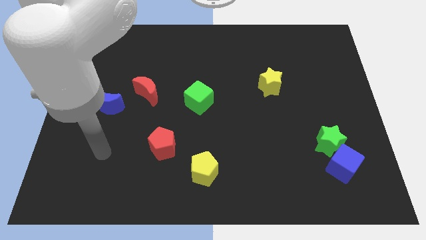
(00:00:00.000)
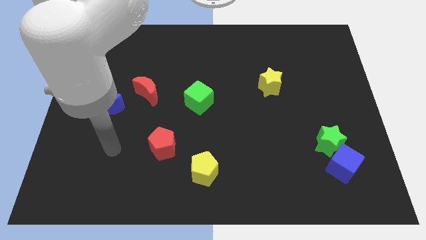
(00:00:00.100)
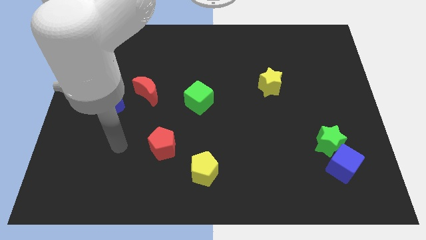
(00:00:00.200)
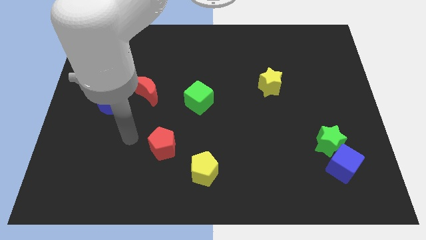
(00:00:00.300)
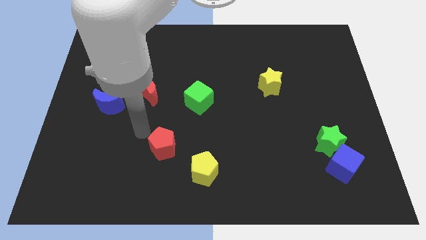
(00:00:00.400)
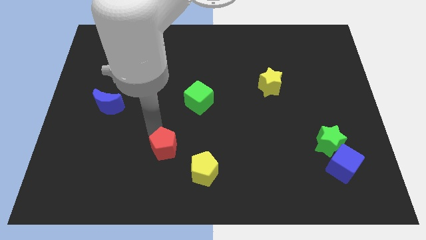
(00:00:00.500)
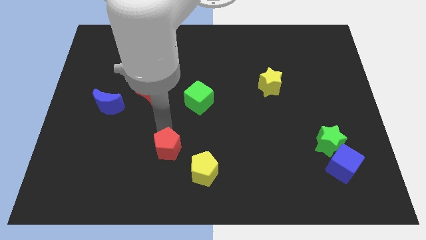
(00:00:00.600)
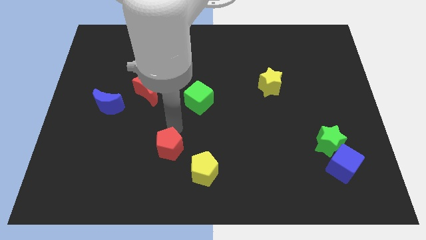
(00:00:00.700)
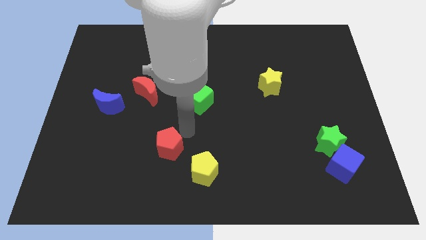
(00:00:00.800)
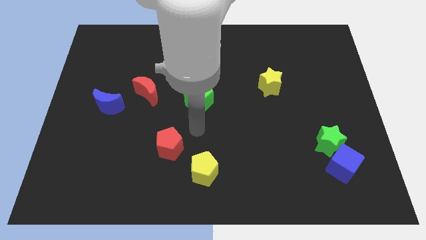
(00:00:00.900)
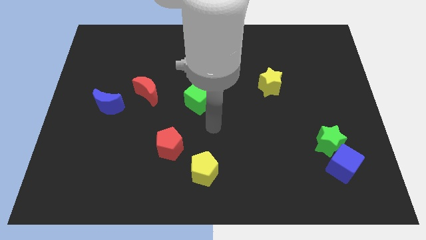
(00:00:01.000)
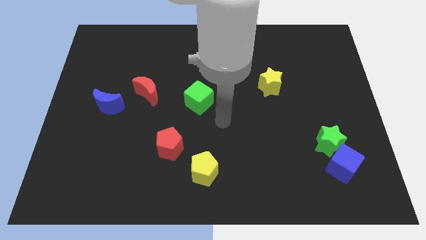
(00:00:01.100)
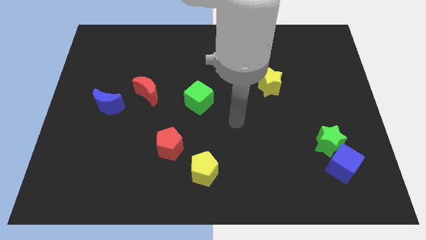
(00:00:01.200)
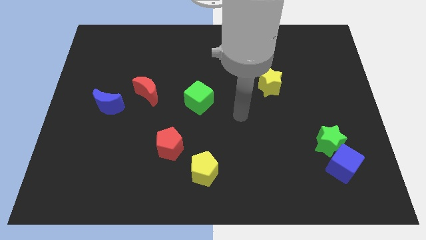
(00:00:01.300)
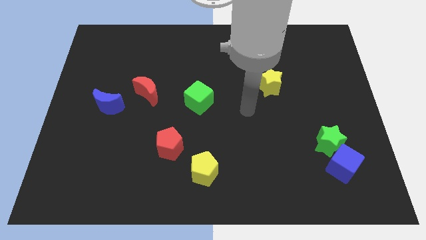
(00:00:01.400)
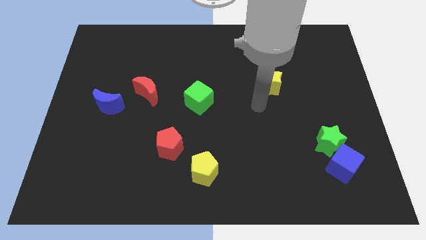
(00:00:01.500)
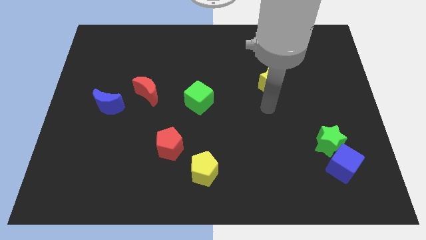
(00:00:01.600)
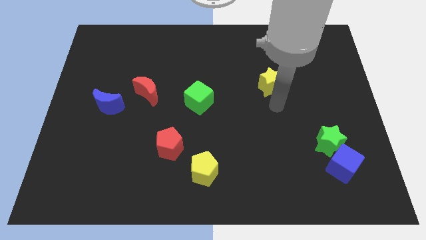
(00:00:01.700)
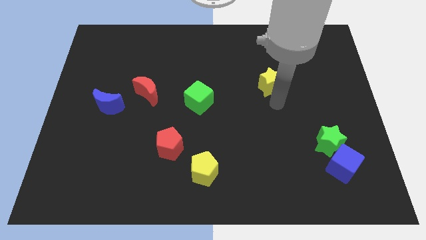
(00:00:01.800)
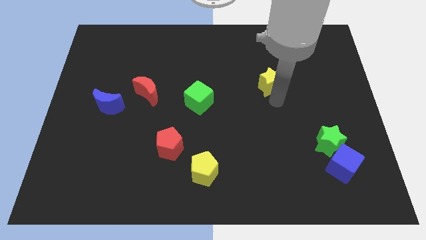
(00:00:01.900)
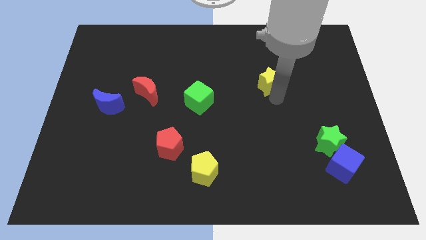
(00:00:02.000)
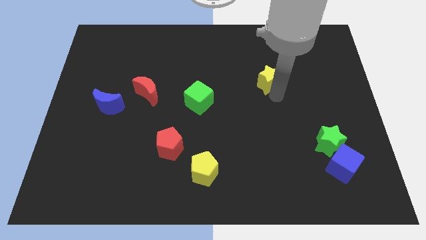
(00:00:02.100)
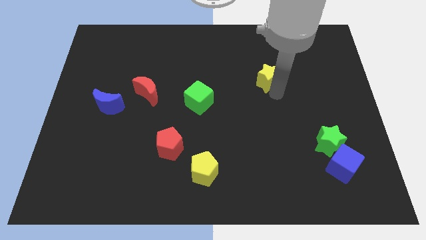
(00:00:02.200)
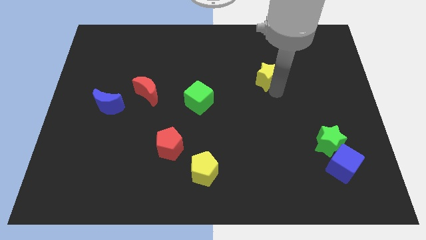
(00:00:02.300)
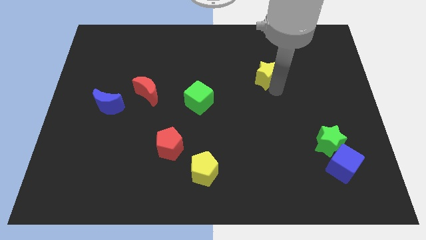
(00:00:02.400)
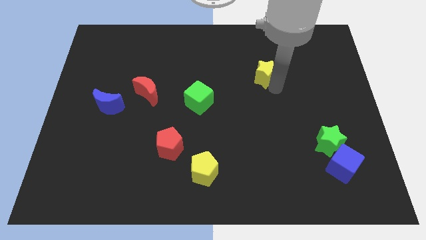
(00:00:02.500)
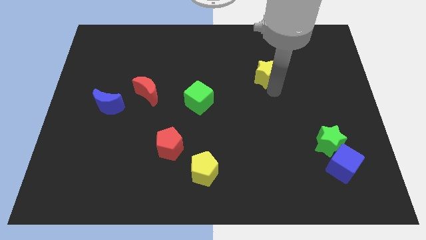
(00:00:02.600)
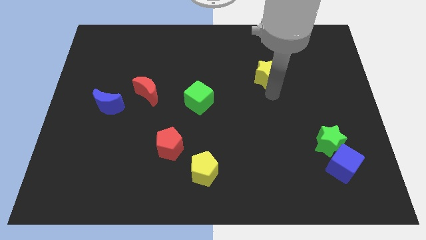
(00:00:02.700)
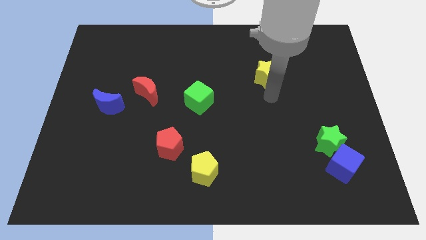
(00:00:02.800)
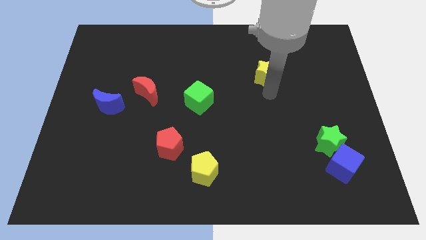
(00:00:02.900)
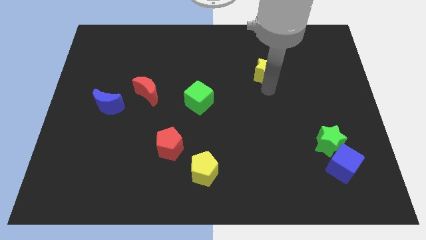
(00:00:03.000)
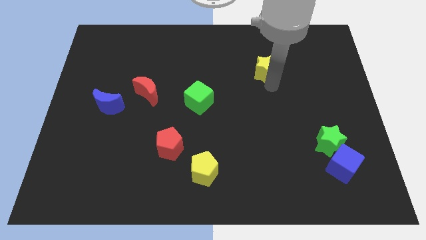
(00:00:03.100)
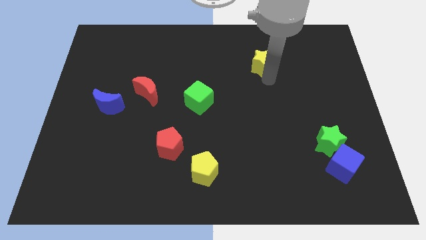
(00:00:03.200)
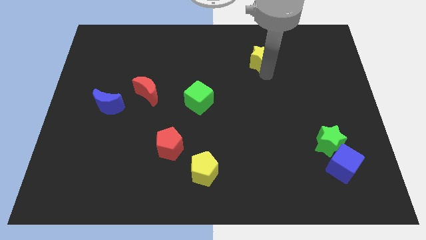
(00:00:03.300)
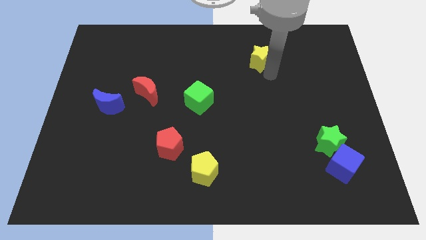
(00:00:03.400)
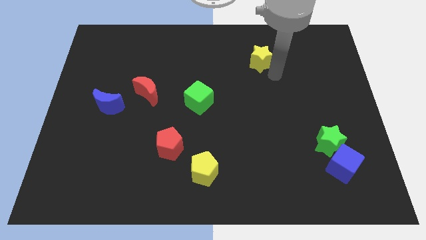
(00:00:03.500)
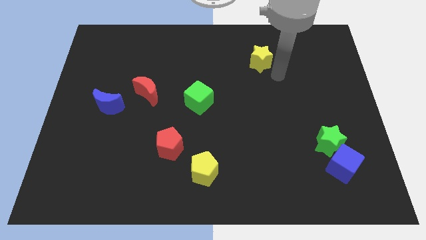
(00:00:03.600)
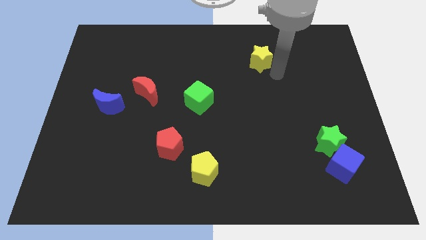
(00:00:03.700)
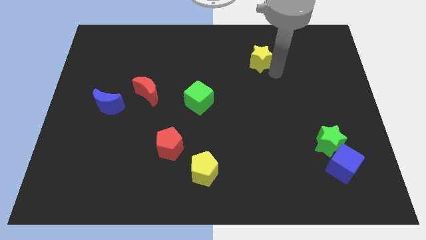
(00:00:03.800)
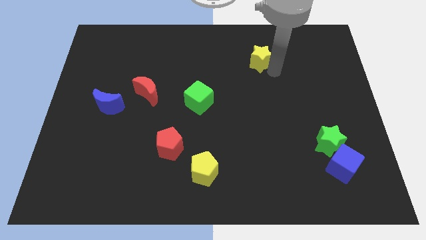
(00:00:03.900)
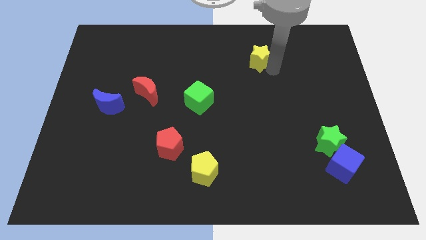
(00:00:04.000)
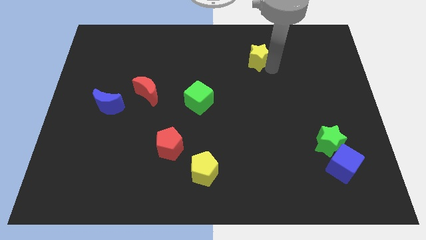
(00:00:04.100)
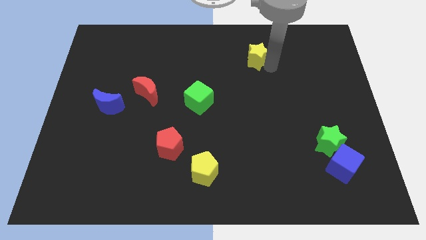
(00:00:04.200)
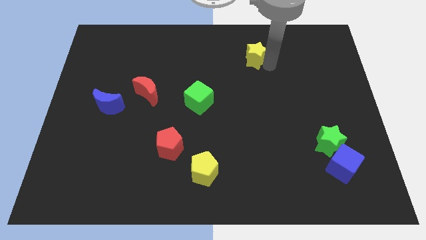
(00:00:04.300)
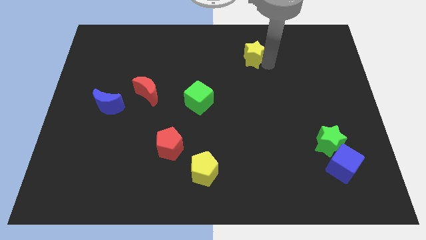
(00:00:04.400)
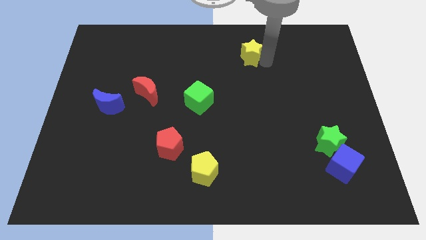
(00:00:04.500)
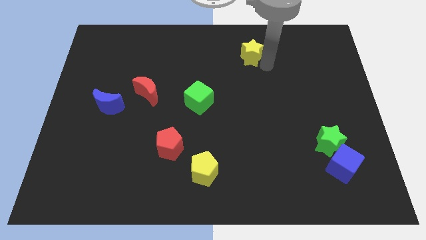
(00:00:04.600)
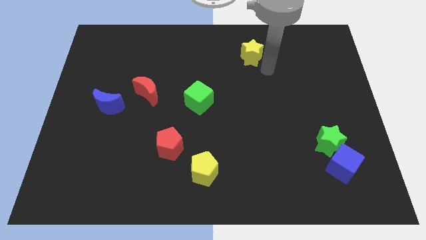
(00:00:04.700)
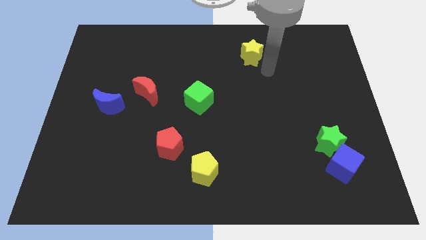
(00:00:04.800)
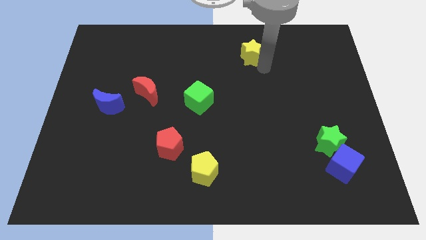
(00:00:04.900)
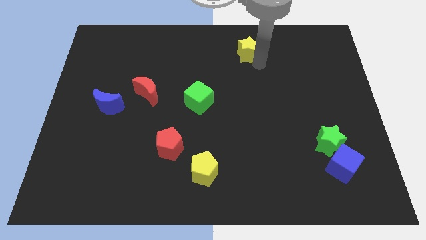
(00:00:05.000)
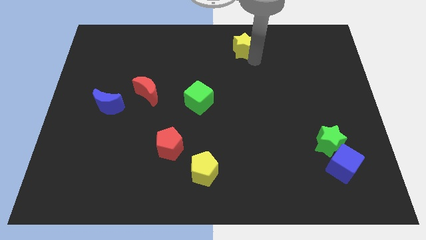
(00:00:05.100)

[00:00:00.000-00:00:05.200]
put the yellow star to the top side
